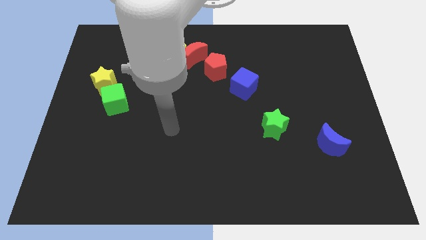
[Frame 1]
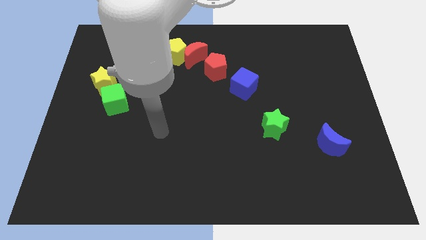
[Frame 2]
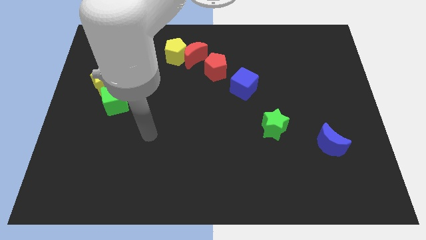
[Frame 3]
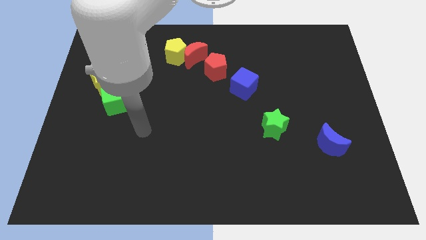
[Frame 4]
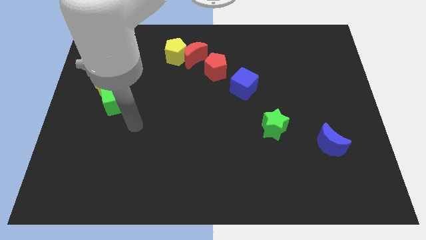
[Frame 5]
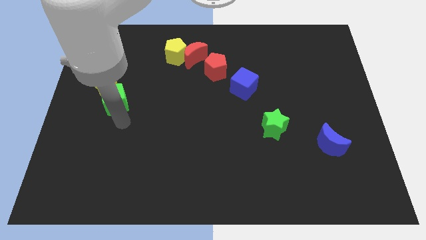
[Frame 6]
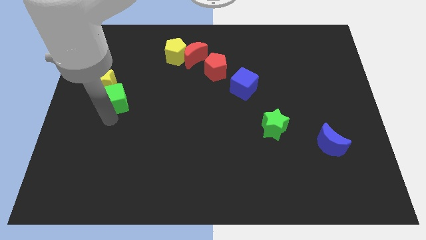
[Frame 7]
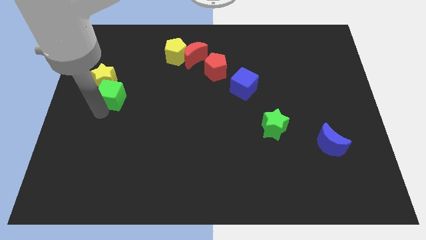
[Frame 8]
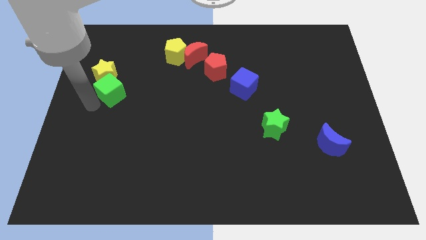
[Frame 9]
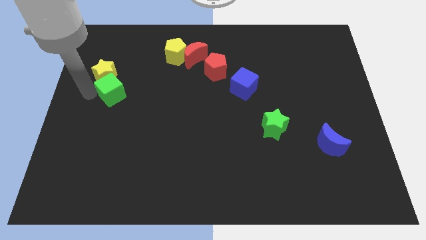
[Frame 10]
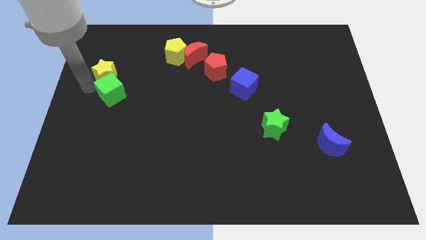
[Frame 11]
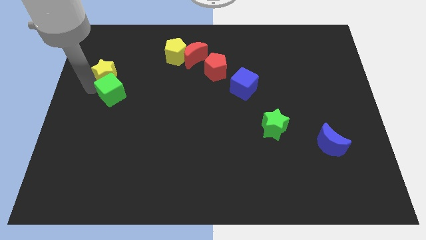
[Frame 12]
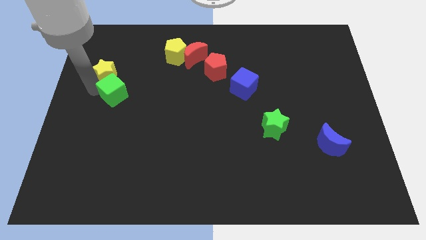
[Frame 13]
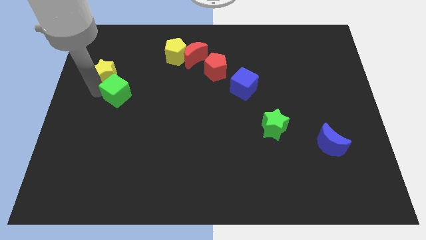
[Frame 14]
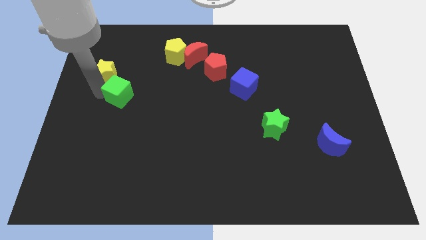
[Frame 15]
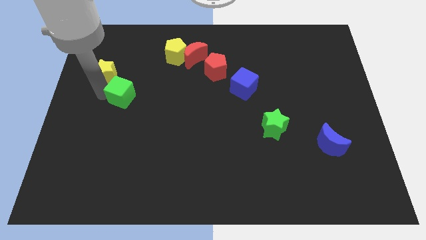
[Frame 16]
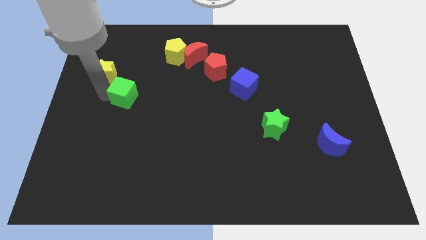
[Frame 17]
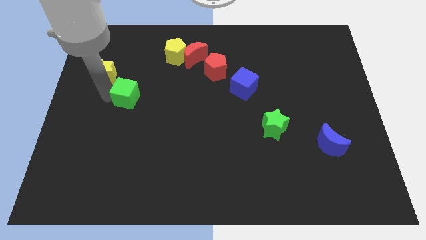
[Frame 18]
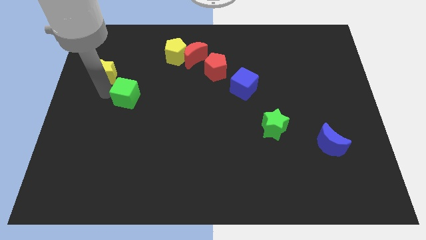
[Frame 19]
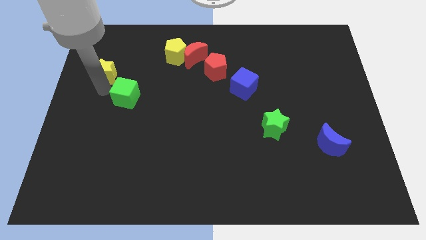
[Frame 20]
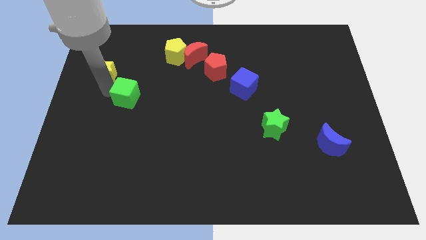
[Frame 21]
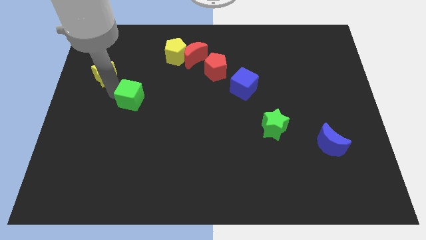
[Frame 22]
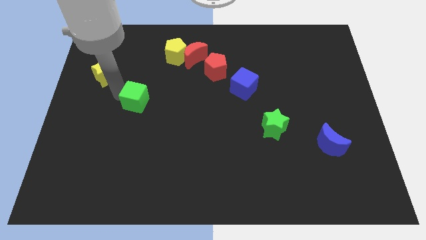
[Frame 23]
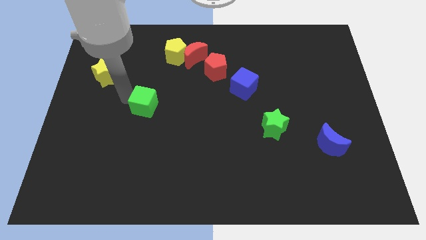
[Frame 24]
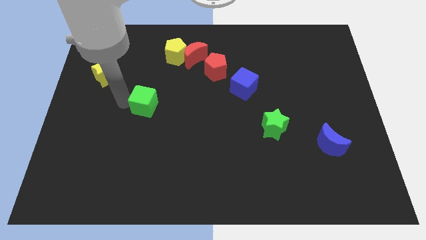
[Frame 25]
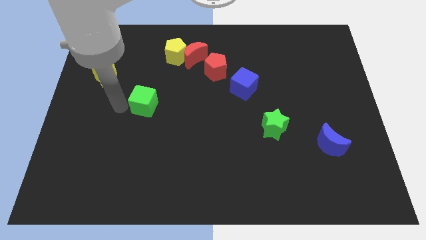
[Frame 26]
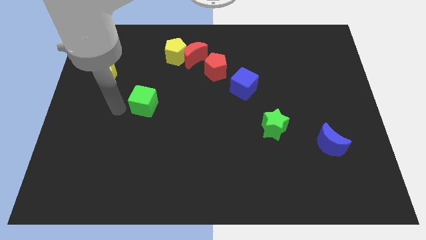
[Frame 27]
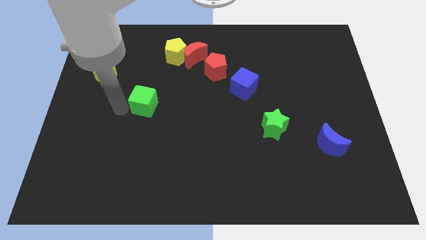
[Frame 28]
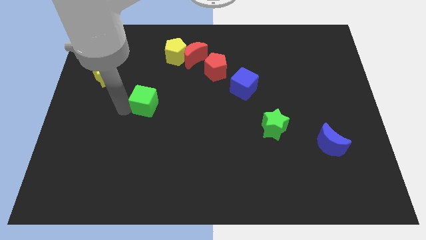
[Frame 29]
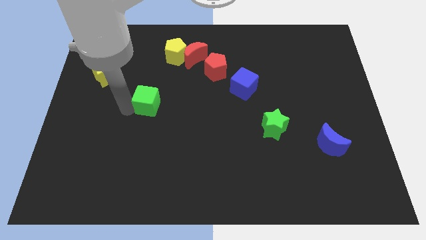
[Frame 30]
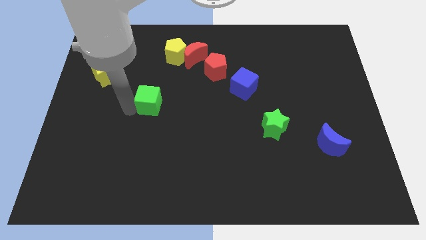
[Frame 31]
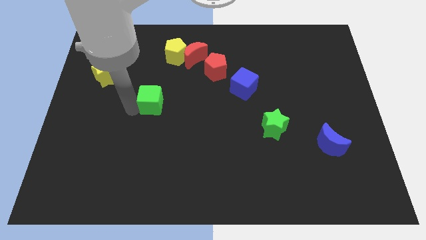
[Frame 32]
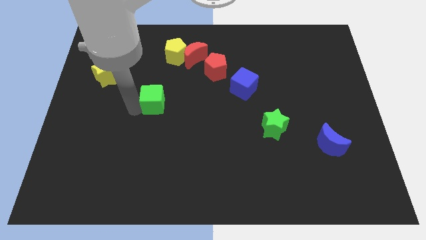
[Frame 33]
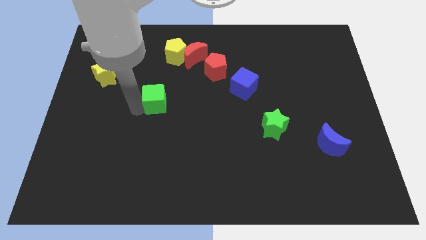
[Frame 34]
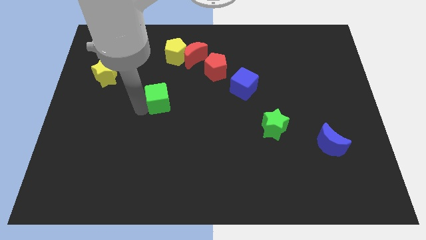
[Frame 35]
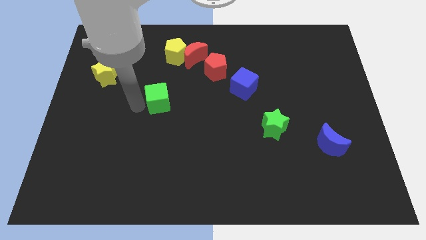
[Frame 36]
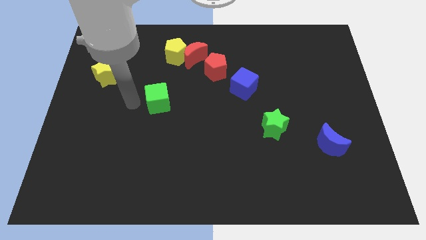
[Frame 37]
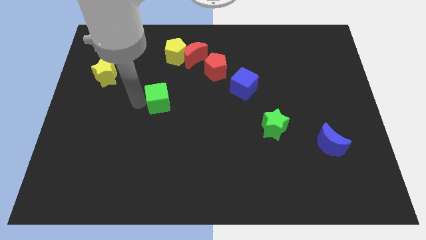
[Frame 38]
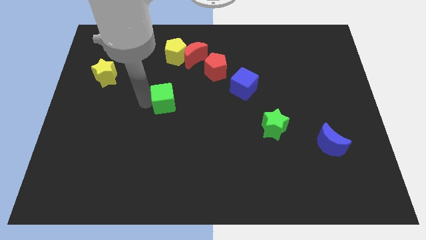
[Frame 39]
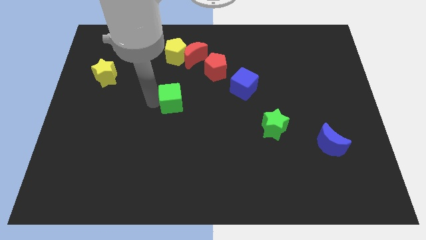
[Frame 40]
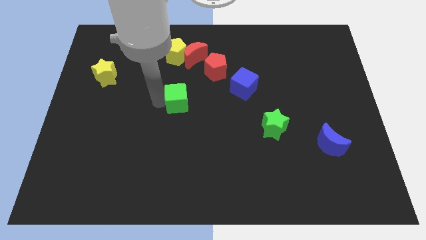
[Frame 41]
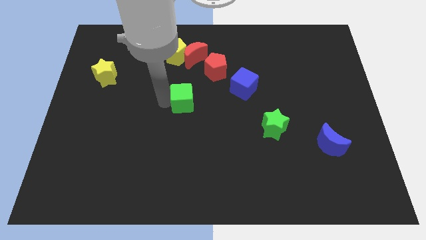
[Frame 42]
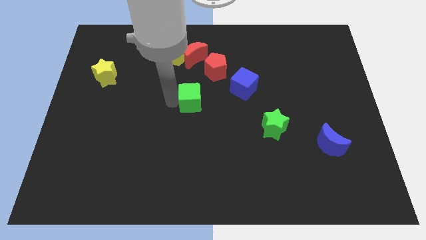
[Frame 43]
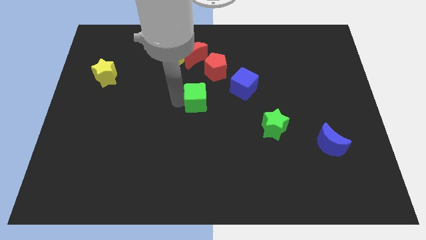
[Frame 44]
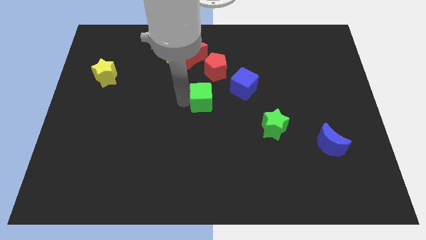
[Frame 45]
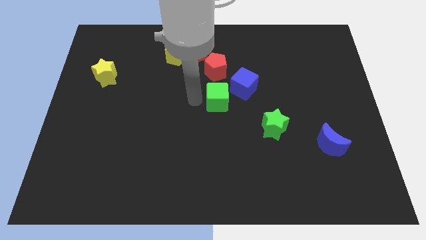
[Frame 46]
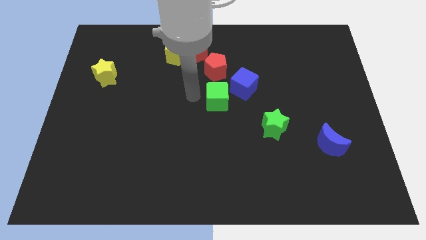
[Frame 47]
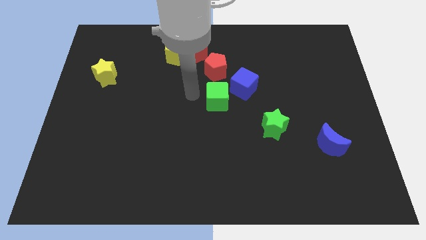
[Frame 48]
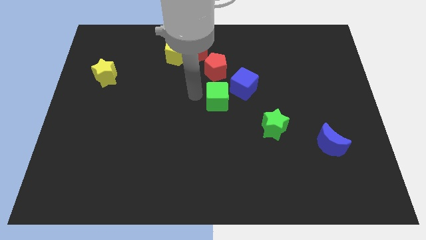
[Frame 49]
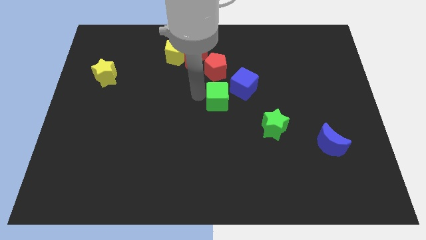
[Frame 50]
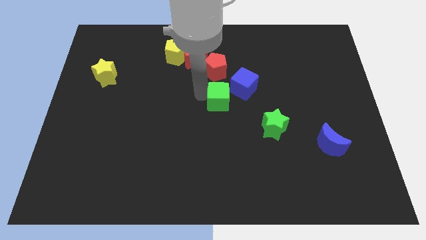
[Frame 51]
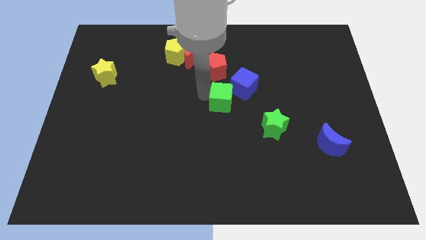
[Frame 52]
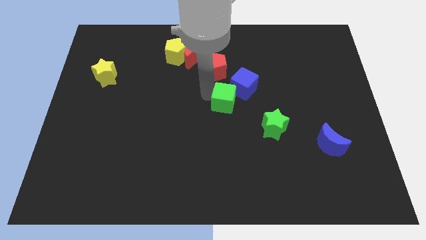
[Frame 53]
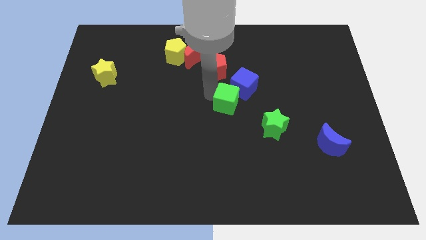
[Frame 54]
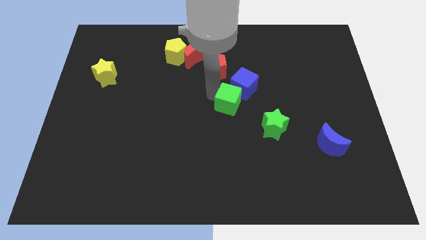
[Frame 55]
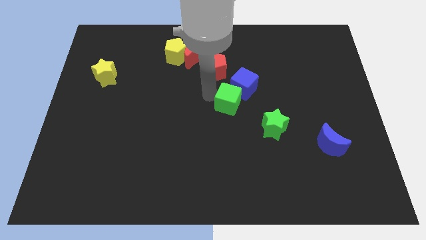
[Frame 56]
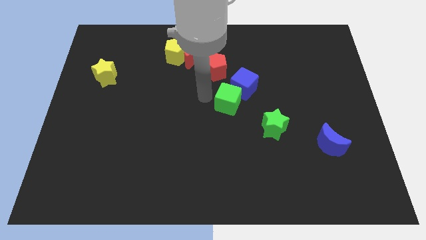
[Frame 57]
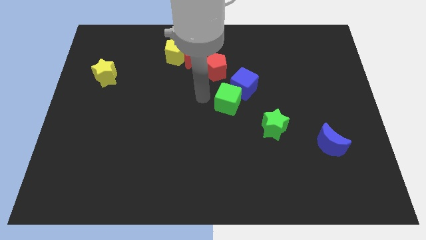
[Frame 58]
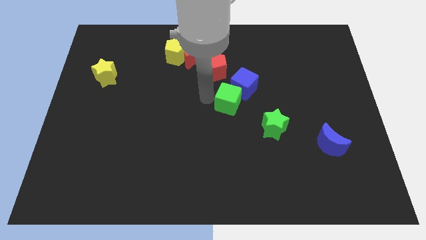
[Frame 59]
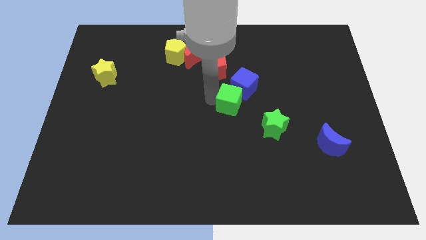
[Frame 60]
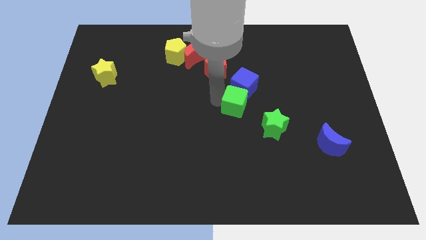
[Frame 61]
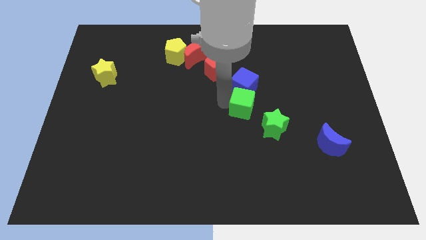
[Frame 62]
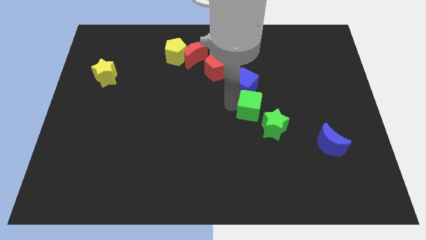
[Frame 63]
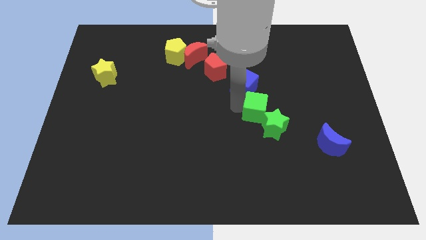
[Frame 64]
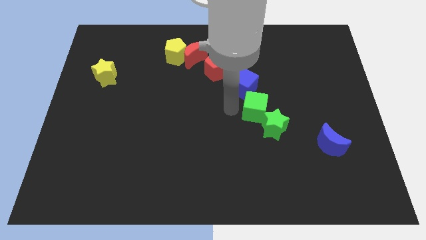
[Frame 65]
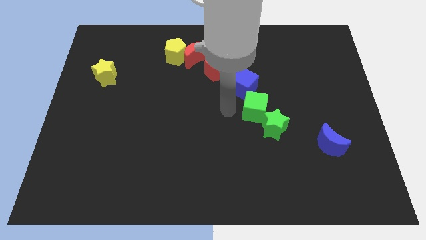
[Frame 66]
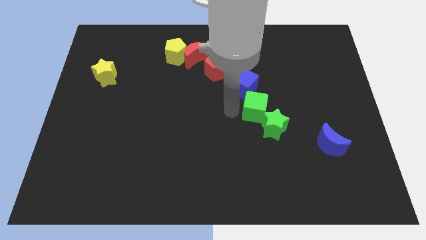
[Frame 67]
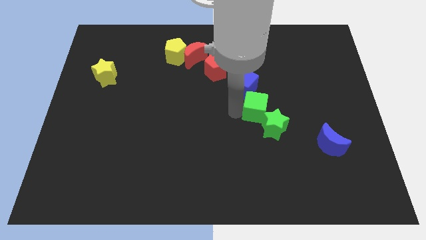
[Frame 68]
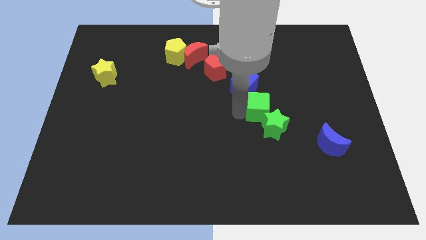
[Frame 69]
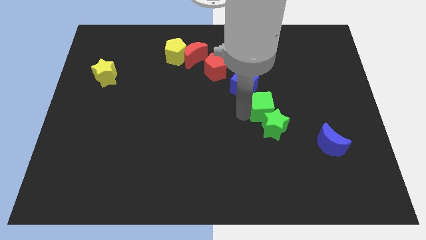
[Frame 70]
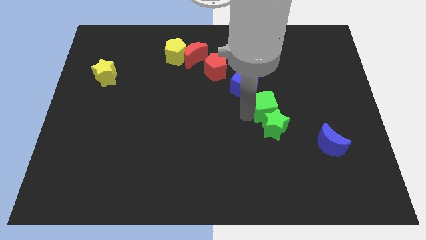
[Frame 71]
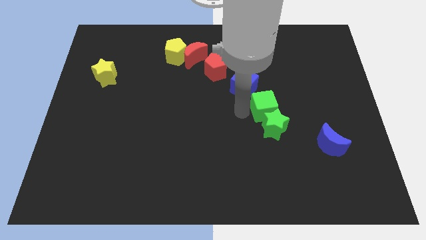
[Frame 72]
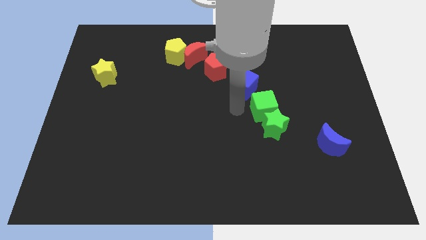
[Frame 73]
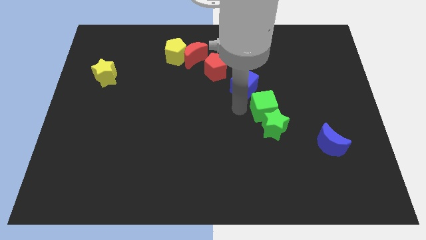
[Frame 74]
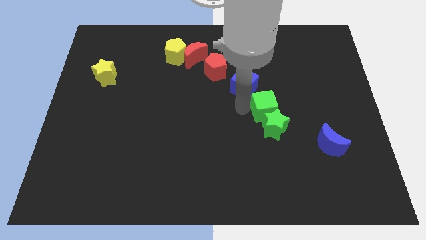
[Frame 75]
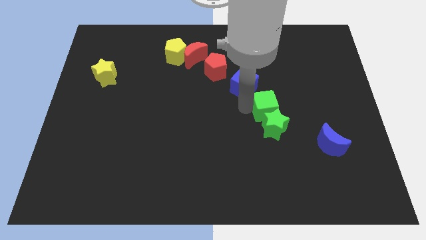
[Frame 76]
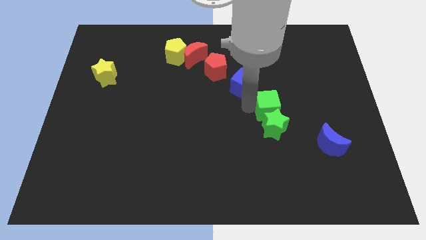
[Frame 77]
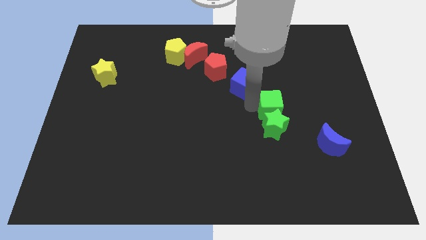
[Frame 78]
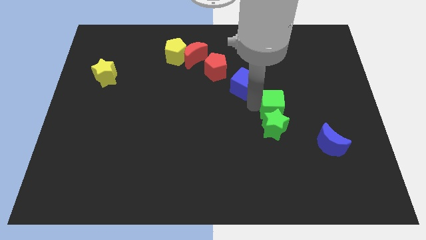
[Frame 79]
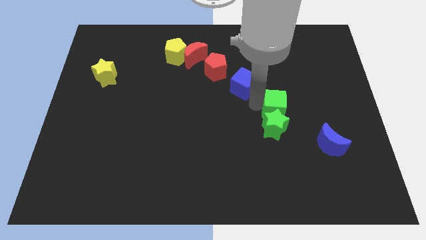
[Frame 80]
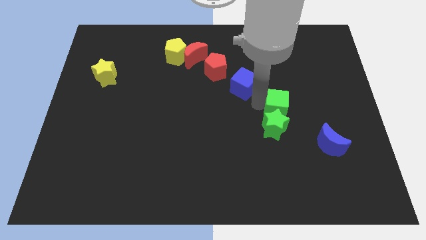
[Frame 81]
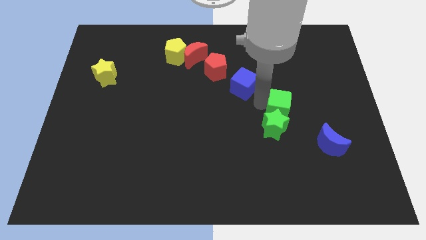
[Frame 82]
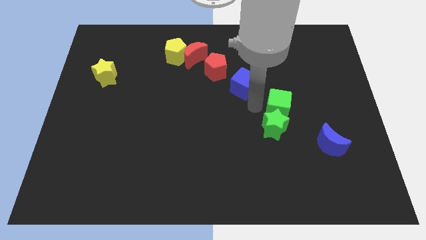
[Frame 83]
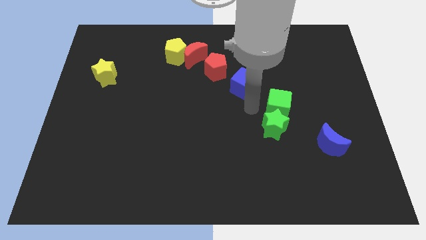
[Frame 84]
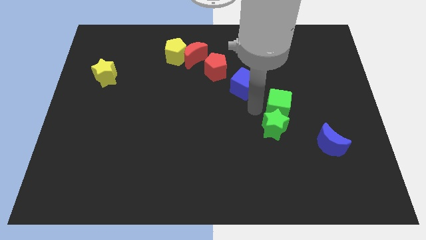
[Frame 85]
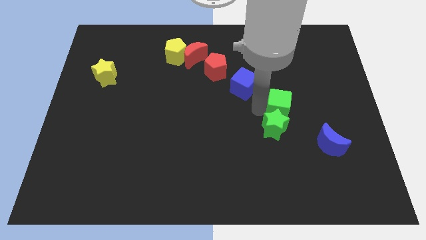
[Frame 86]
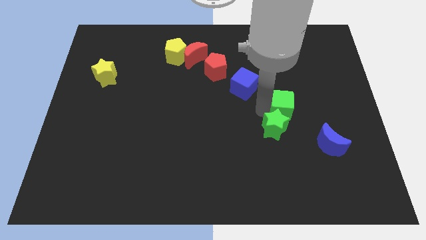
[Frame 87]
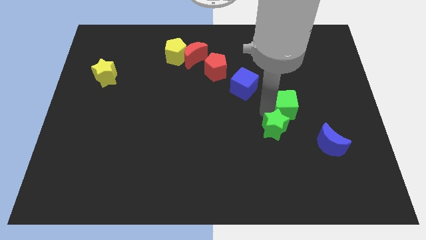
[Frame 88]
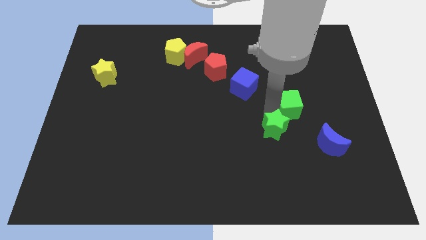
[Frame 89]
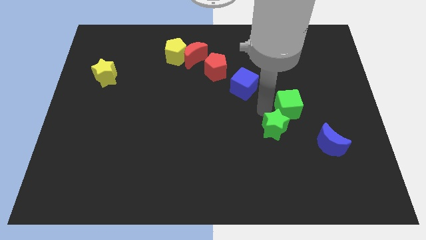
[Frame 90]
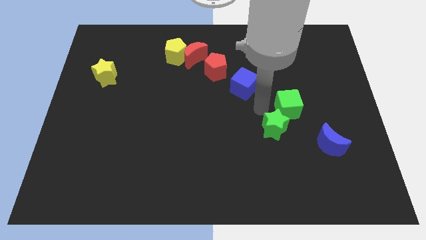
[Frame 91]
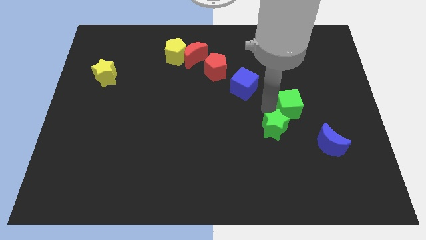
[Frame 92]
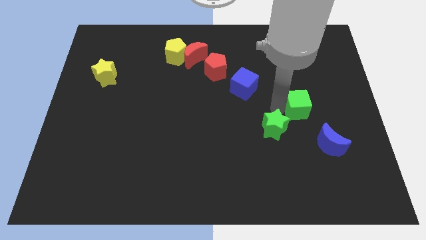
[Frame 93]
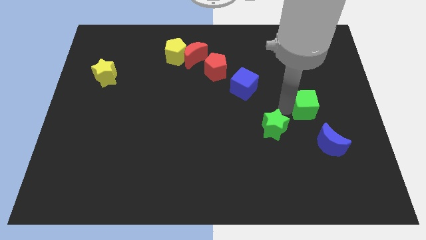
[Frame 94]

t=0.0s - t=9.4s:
push the green cube to the top side of the blue moon
